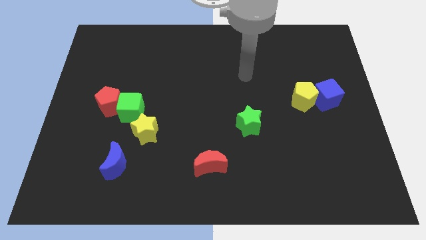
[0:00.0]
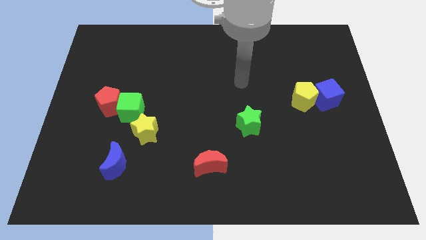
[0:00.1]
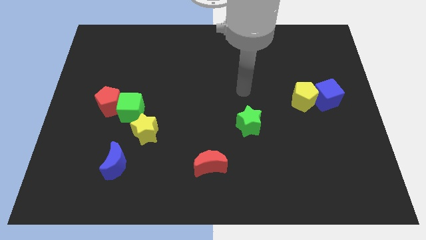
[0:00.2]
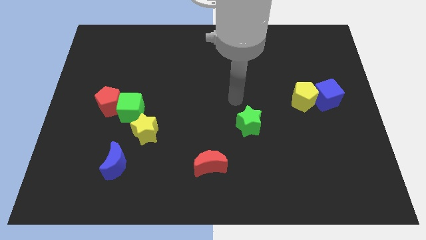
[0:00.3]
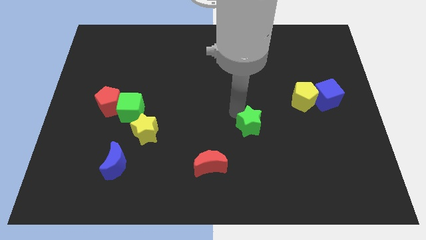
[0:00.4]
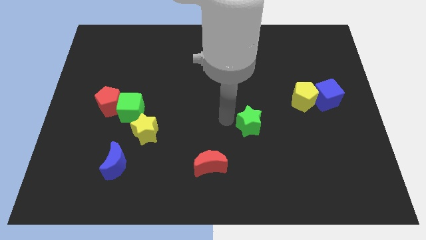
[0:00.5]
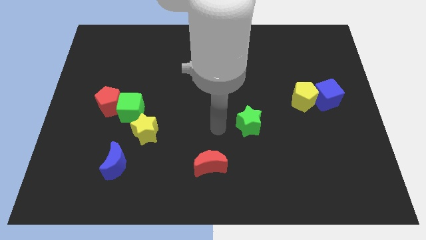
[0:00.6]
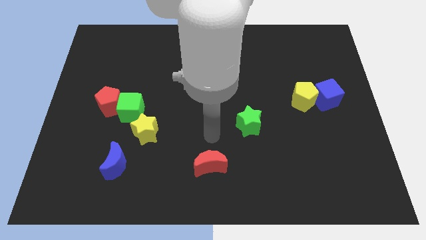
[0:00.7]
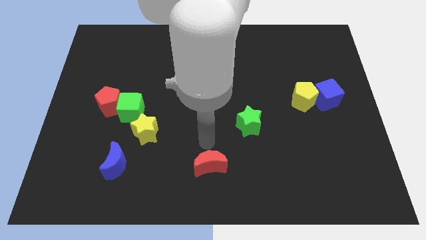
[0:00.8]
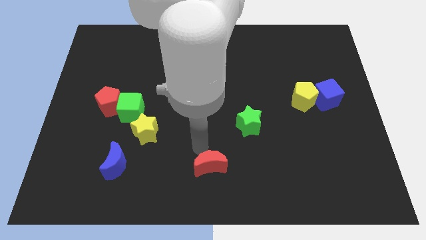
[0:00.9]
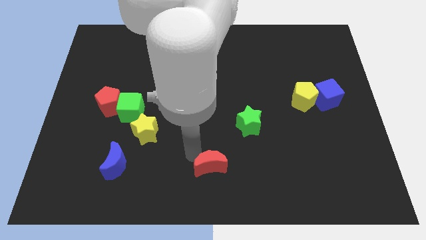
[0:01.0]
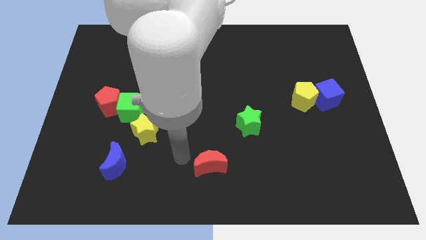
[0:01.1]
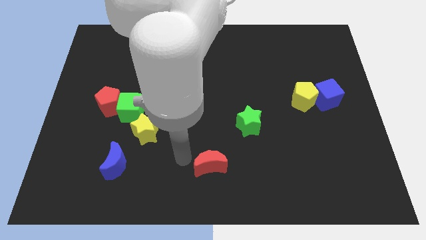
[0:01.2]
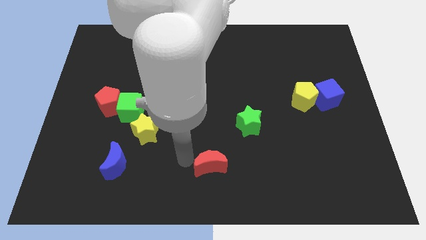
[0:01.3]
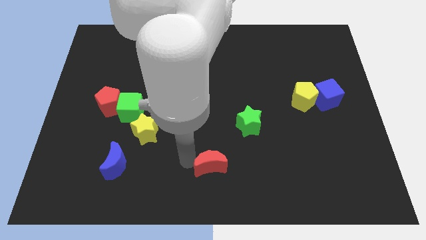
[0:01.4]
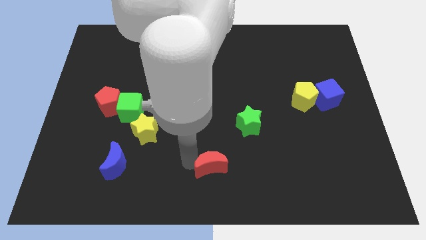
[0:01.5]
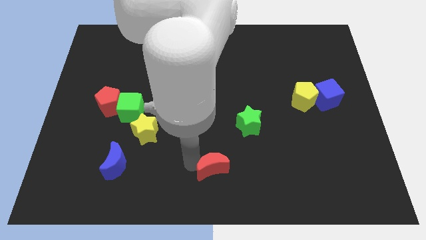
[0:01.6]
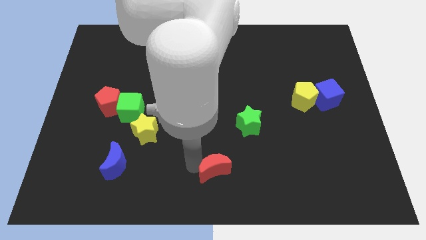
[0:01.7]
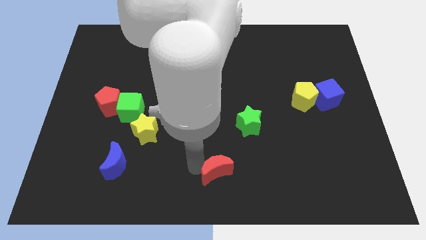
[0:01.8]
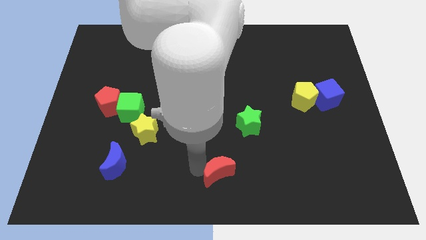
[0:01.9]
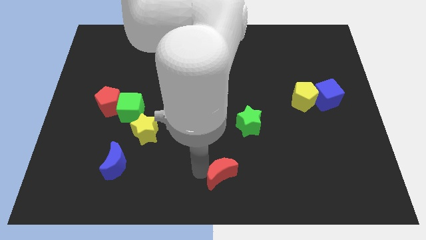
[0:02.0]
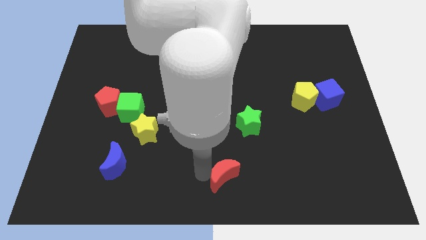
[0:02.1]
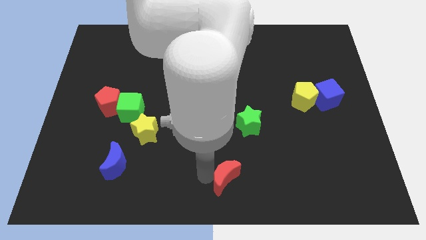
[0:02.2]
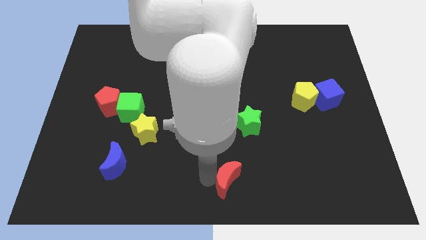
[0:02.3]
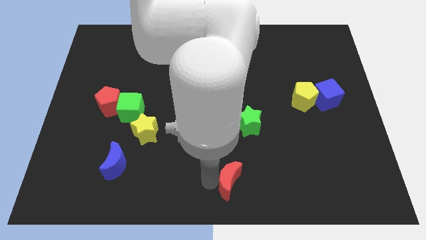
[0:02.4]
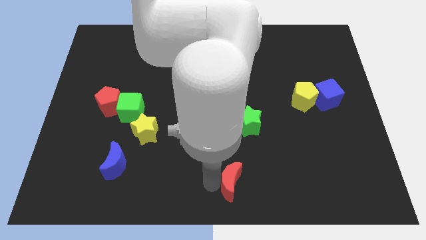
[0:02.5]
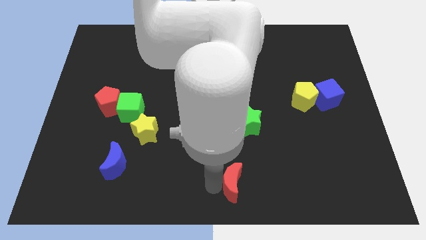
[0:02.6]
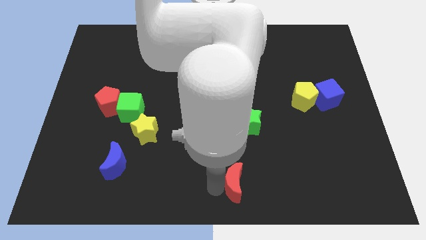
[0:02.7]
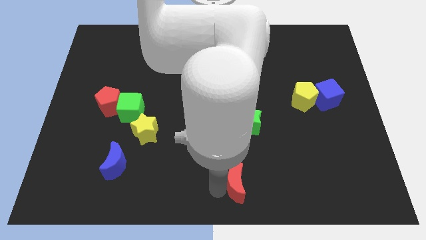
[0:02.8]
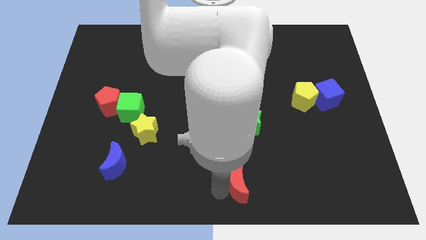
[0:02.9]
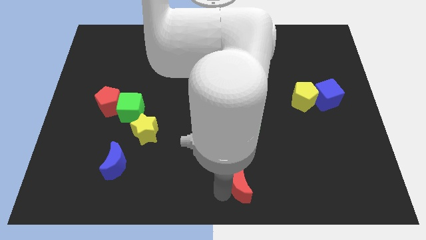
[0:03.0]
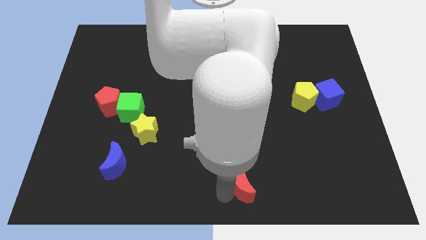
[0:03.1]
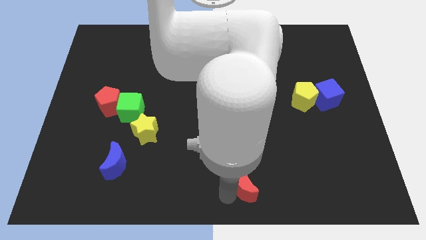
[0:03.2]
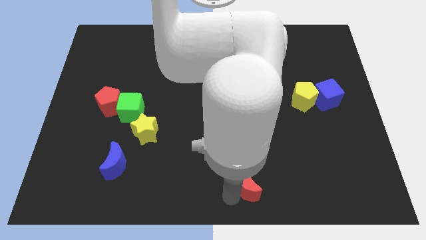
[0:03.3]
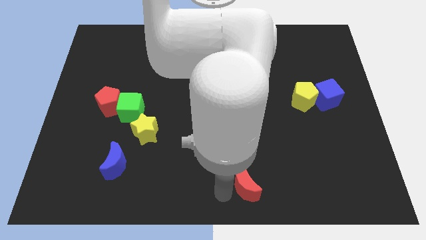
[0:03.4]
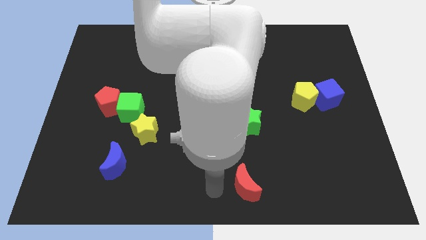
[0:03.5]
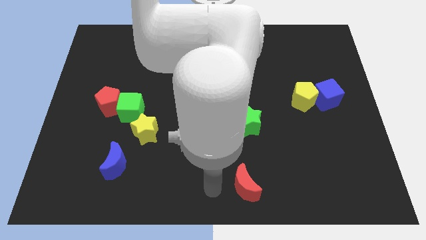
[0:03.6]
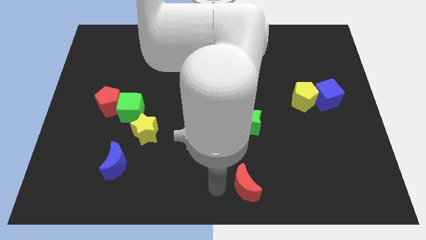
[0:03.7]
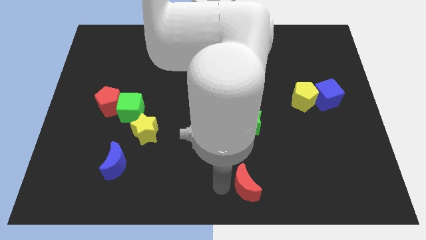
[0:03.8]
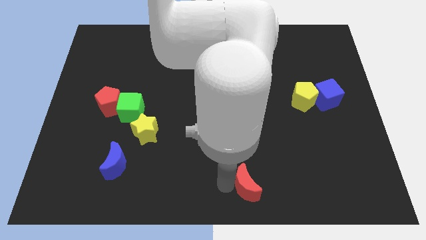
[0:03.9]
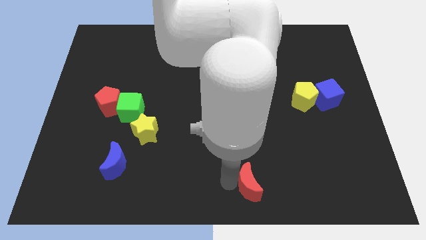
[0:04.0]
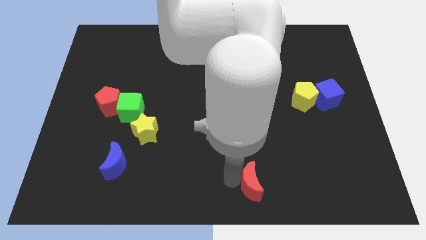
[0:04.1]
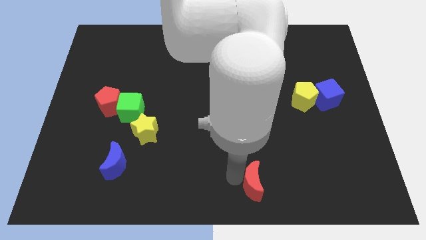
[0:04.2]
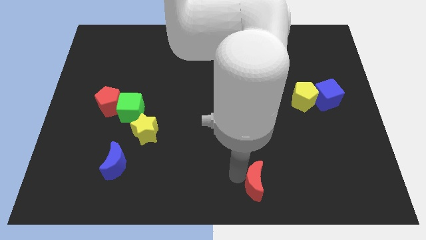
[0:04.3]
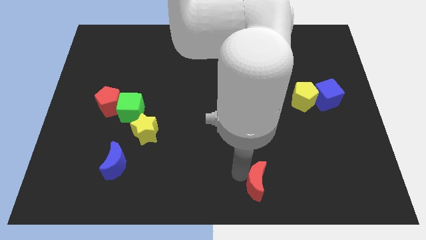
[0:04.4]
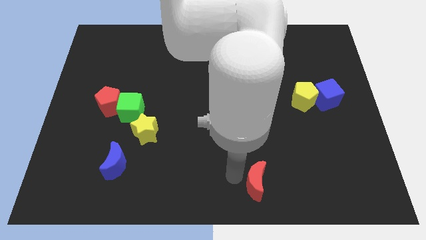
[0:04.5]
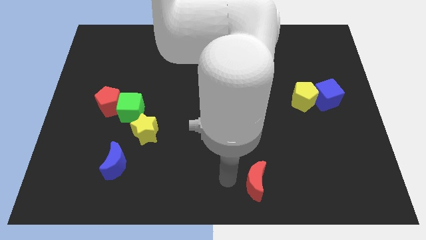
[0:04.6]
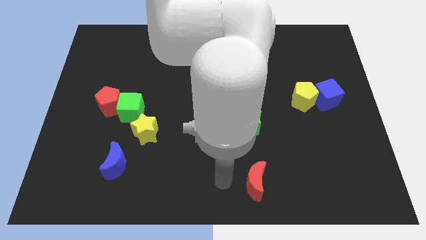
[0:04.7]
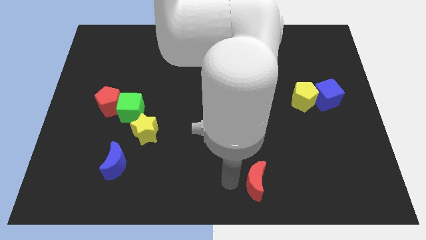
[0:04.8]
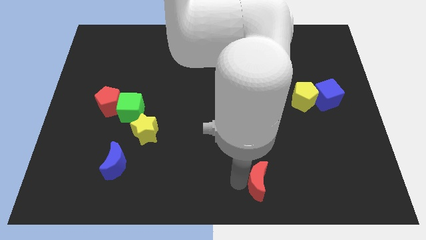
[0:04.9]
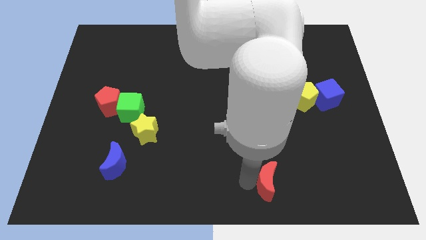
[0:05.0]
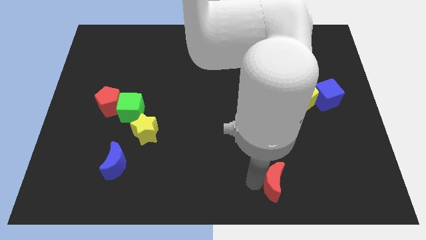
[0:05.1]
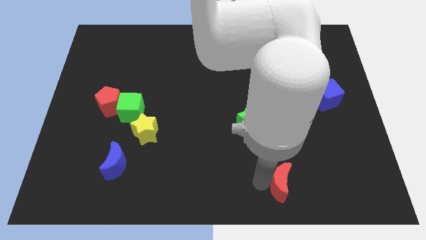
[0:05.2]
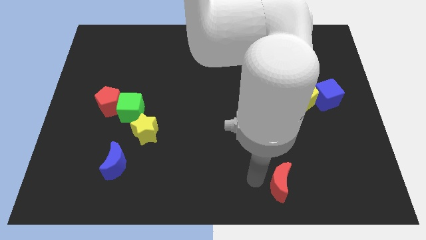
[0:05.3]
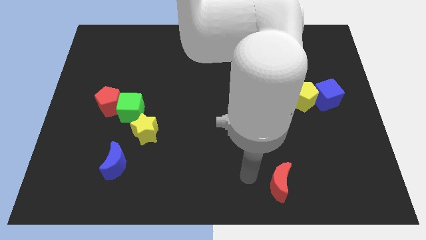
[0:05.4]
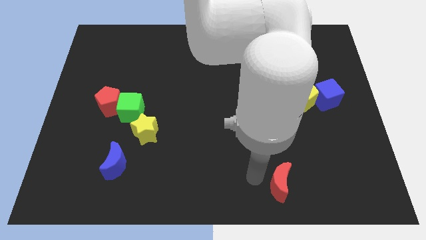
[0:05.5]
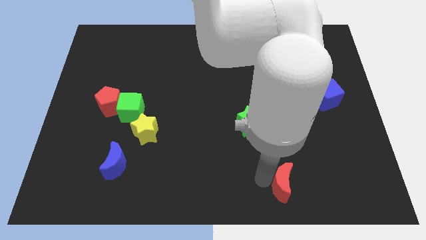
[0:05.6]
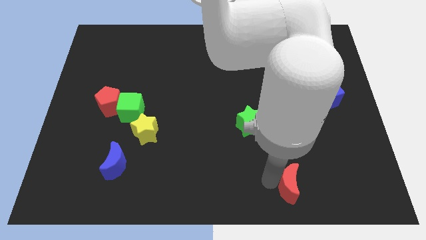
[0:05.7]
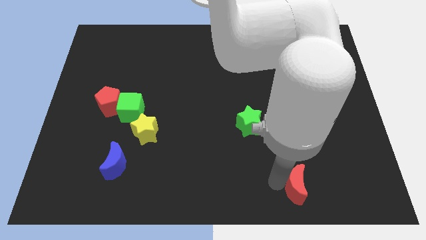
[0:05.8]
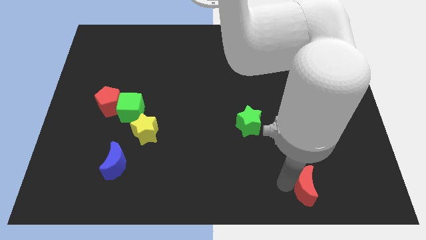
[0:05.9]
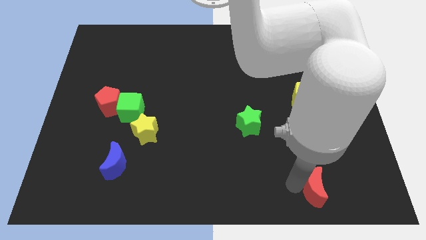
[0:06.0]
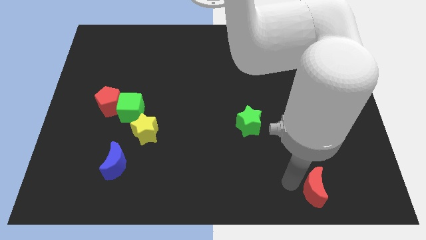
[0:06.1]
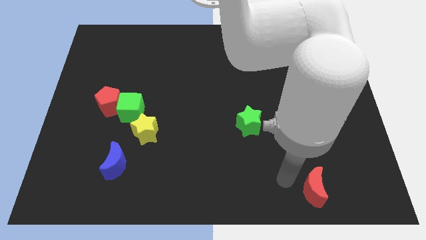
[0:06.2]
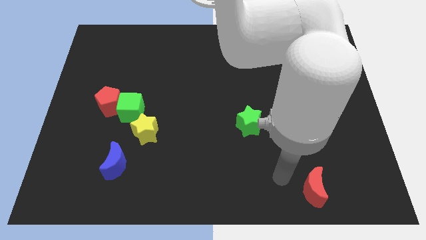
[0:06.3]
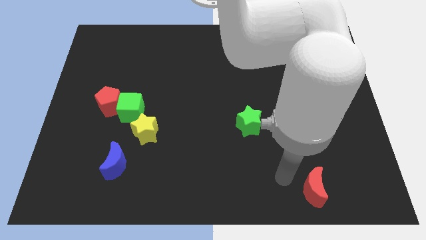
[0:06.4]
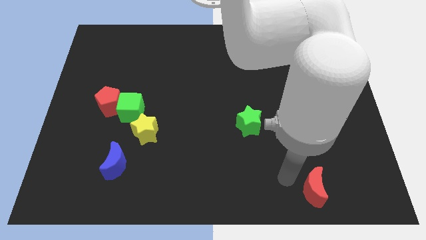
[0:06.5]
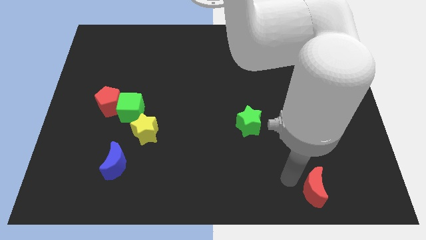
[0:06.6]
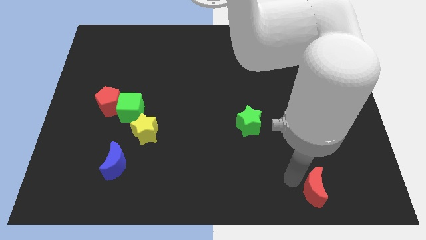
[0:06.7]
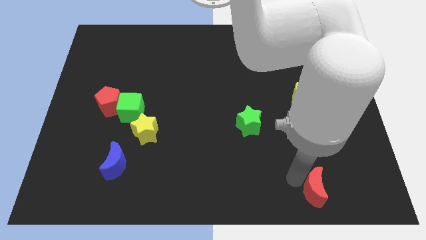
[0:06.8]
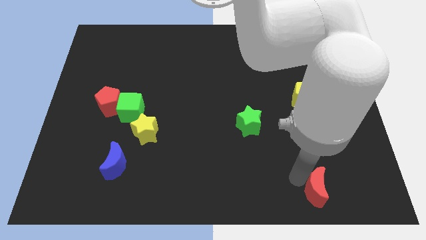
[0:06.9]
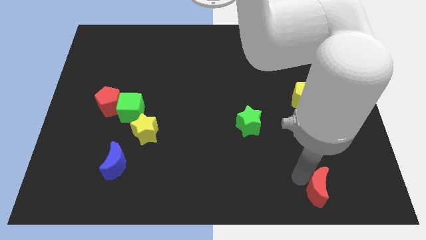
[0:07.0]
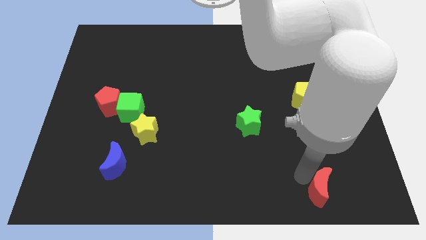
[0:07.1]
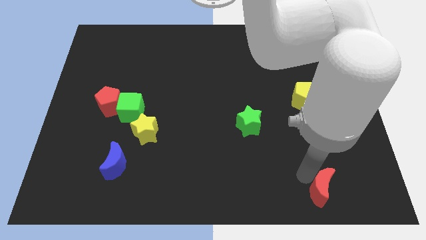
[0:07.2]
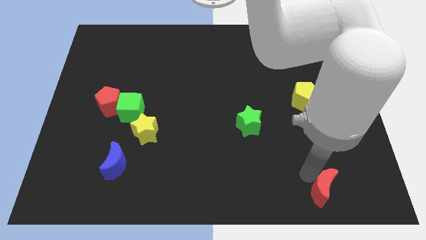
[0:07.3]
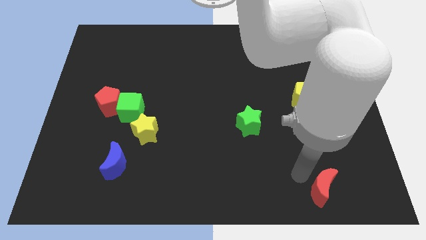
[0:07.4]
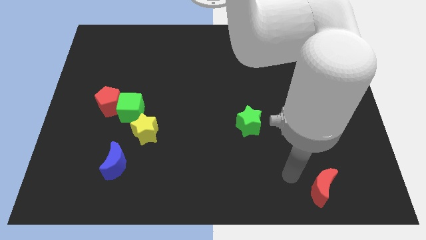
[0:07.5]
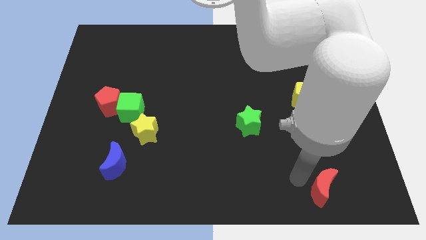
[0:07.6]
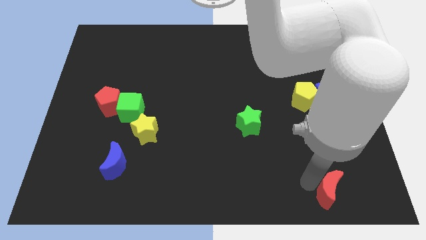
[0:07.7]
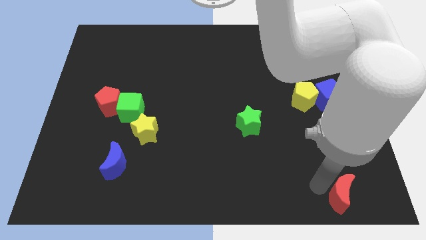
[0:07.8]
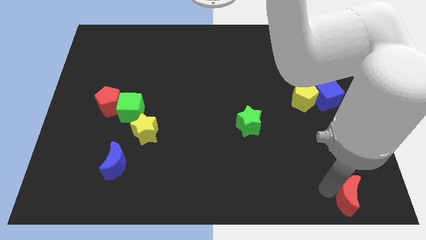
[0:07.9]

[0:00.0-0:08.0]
push the red moon to the lower right corner
